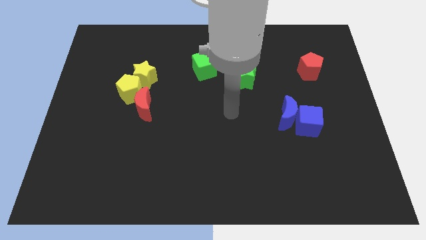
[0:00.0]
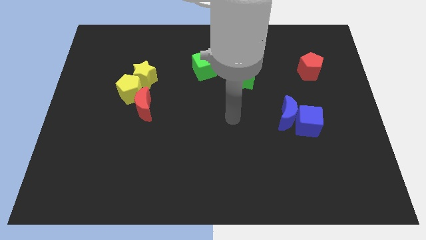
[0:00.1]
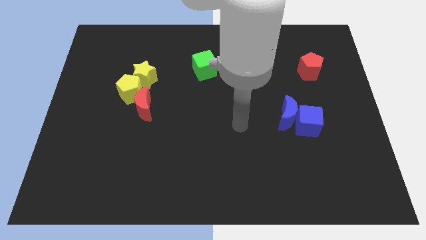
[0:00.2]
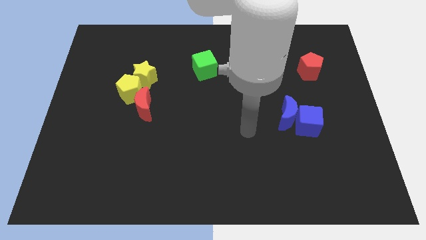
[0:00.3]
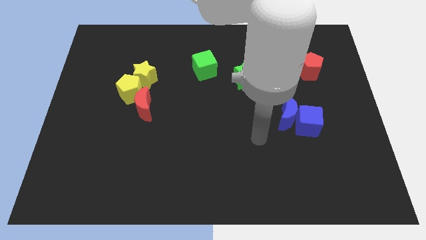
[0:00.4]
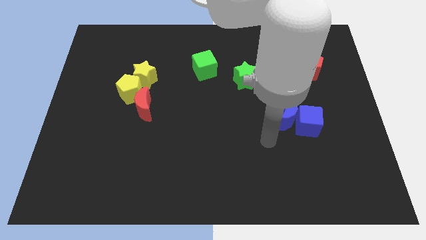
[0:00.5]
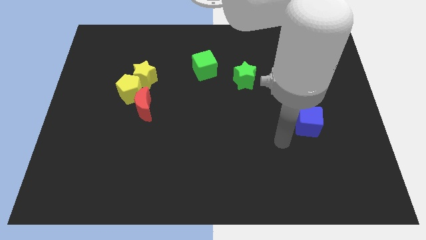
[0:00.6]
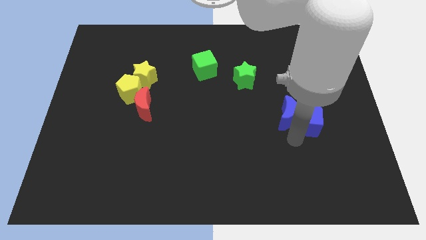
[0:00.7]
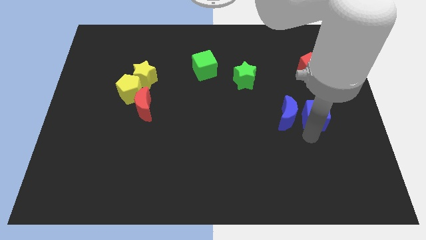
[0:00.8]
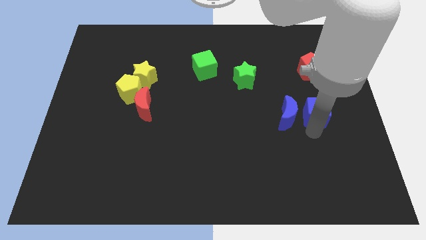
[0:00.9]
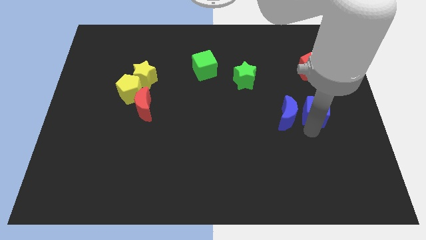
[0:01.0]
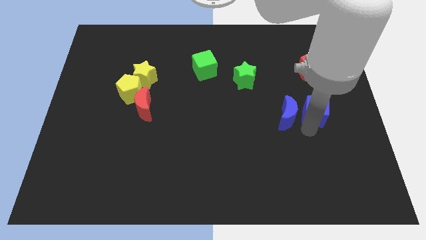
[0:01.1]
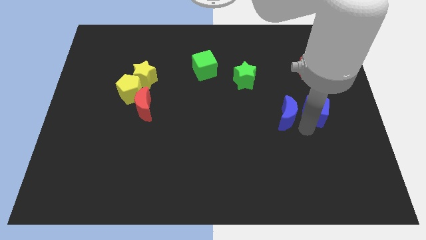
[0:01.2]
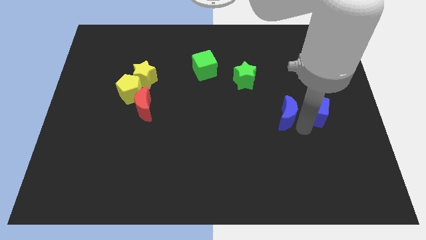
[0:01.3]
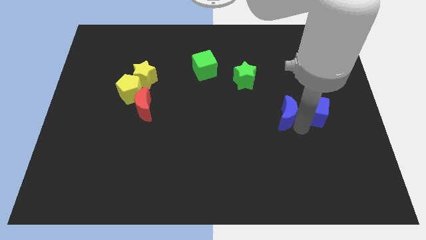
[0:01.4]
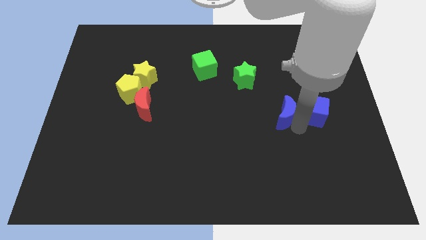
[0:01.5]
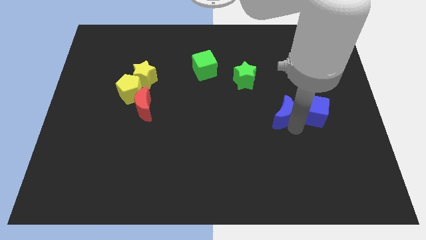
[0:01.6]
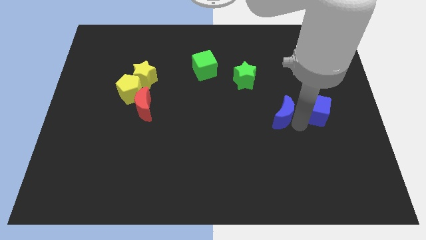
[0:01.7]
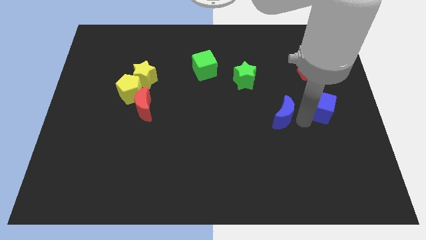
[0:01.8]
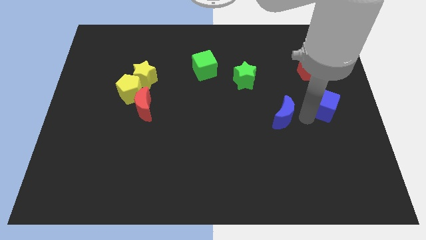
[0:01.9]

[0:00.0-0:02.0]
move the blue moon away from the blue cube

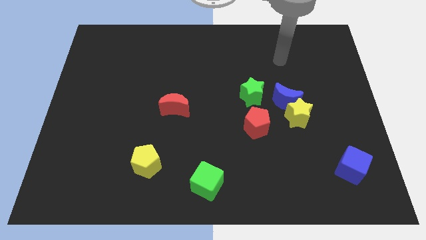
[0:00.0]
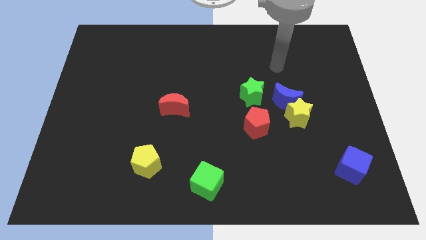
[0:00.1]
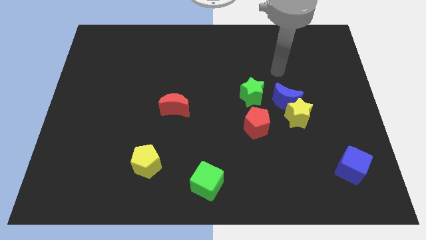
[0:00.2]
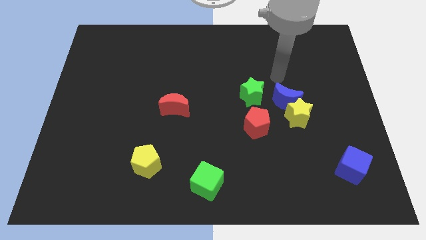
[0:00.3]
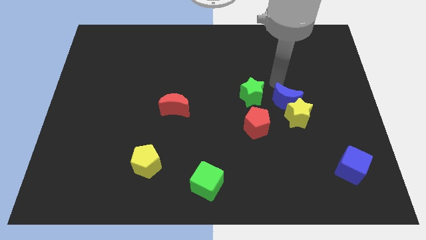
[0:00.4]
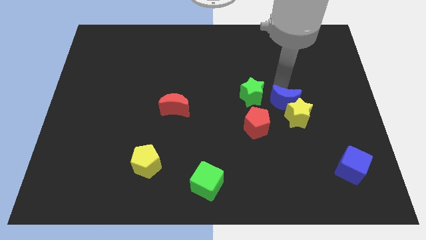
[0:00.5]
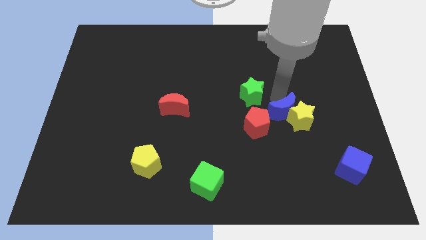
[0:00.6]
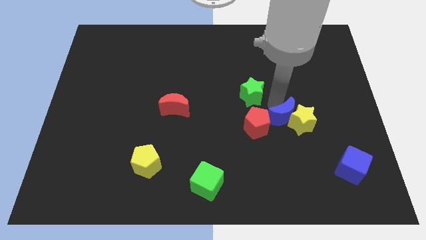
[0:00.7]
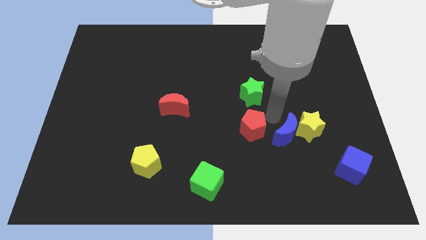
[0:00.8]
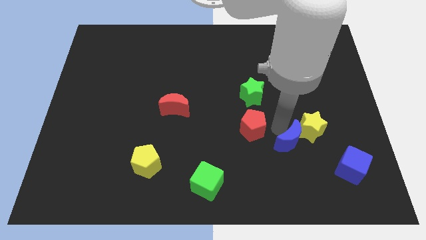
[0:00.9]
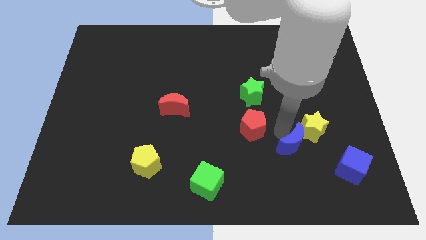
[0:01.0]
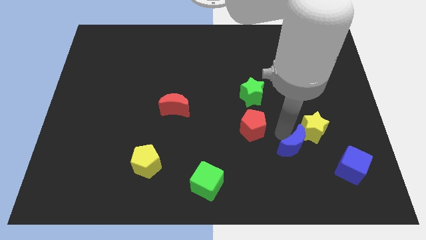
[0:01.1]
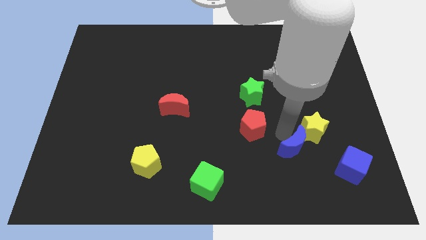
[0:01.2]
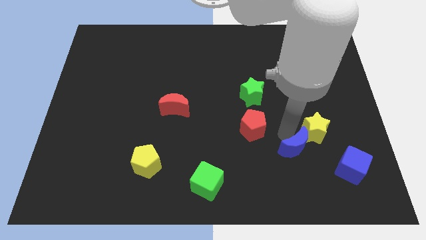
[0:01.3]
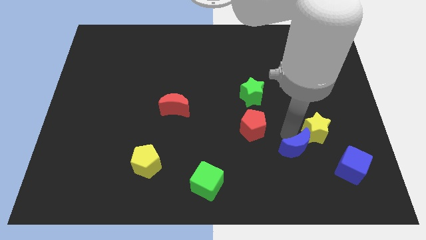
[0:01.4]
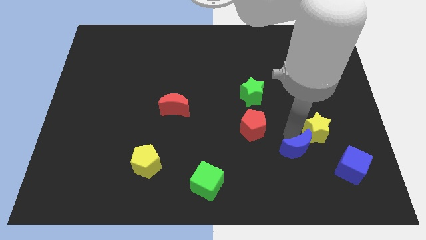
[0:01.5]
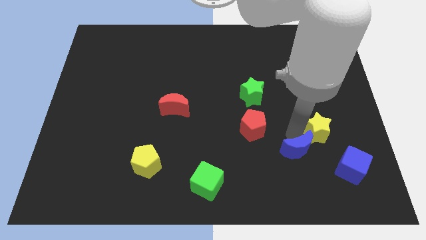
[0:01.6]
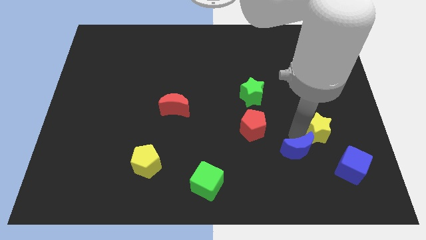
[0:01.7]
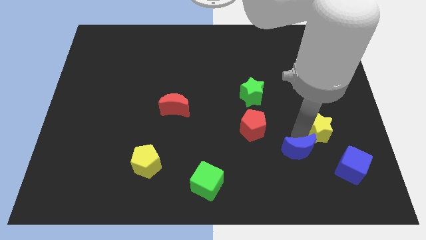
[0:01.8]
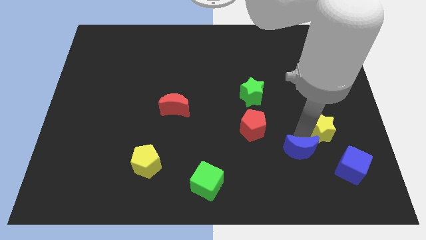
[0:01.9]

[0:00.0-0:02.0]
separate the yellow star from the blue moon and red pentagon

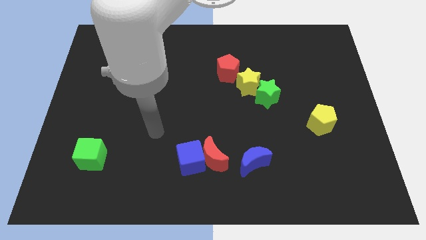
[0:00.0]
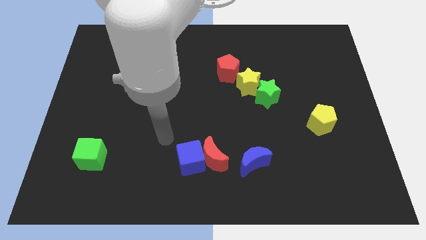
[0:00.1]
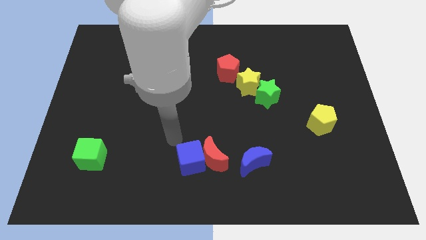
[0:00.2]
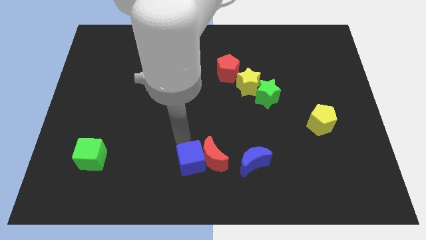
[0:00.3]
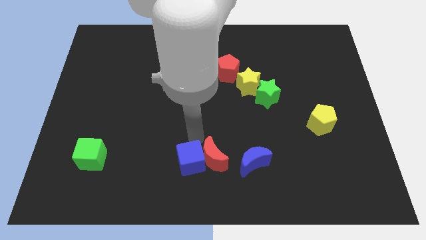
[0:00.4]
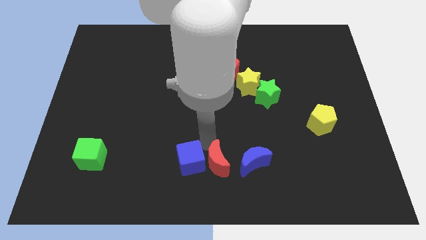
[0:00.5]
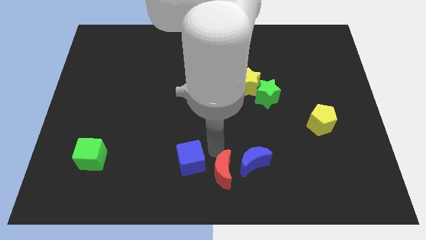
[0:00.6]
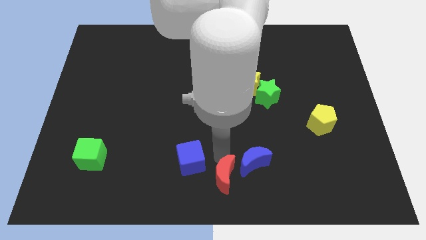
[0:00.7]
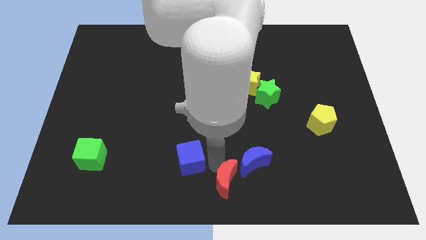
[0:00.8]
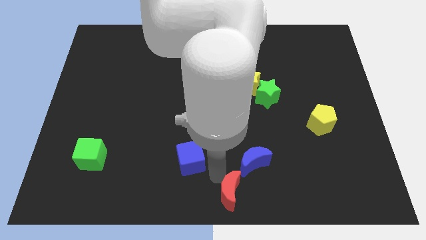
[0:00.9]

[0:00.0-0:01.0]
move the blue cube away from the red moon

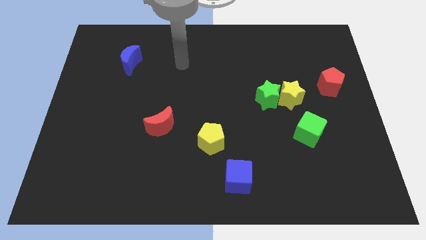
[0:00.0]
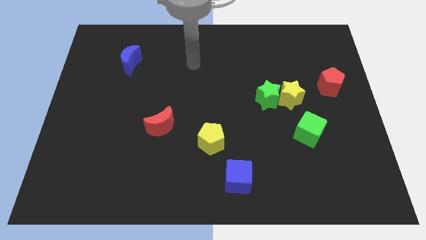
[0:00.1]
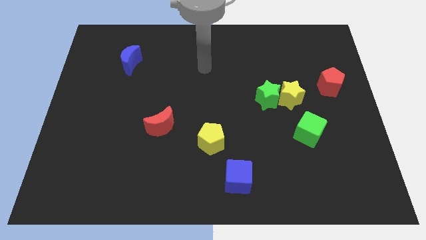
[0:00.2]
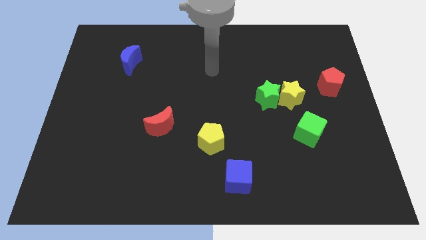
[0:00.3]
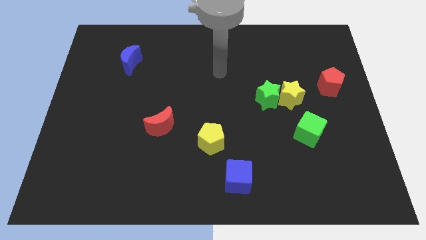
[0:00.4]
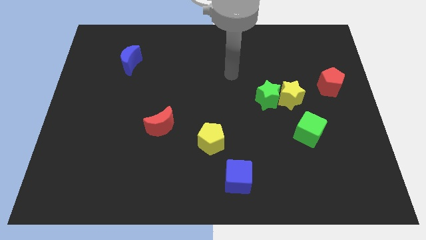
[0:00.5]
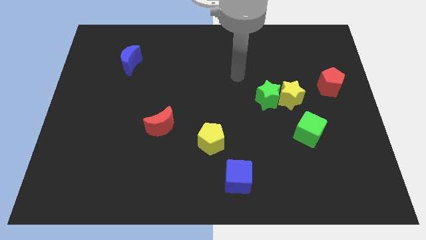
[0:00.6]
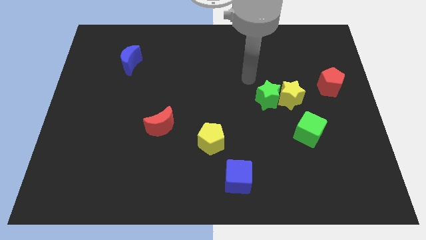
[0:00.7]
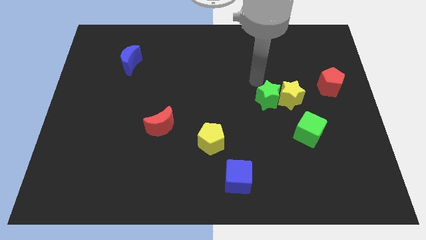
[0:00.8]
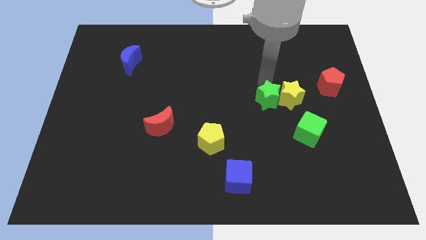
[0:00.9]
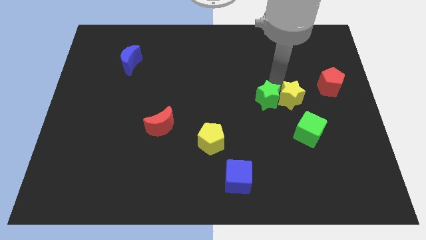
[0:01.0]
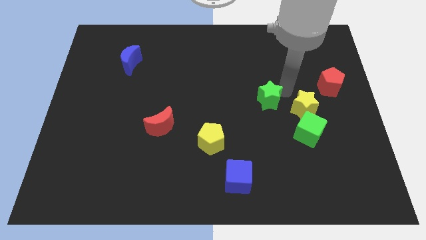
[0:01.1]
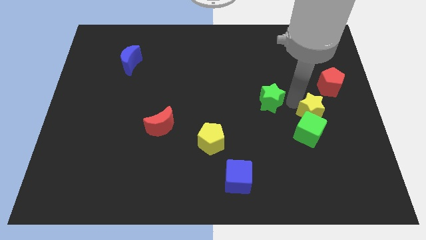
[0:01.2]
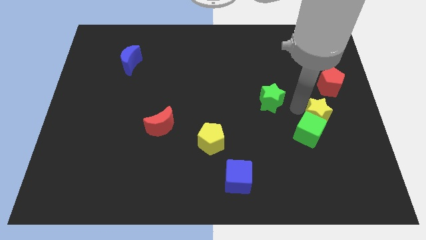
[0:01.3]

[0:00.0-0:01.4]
move the green star away from the yellow star

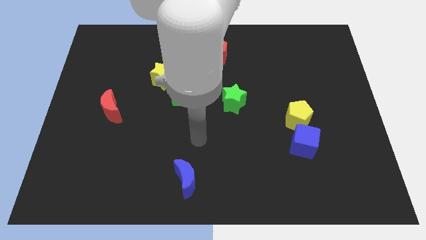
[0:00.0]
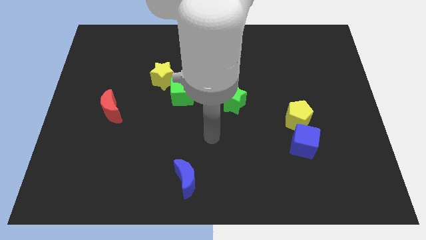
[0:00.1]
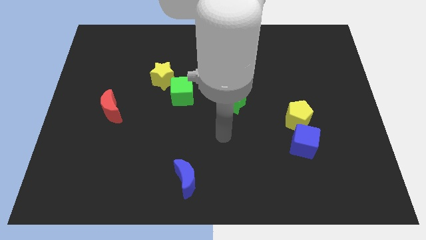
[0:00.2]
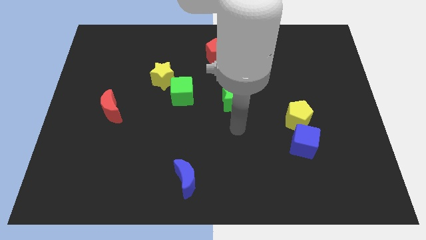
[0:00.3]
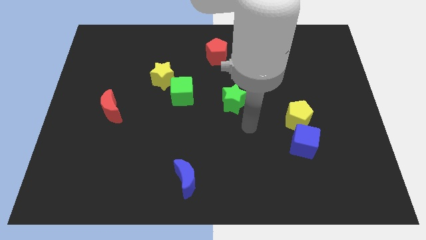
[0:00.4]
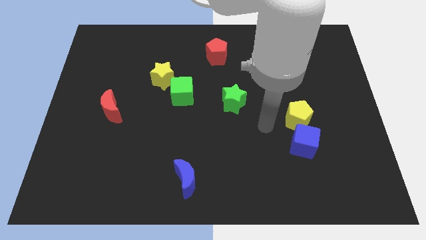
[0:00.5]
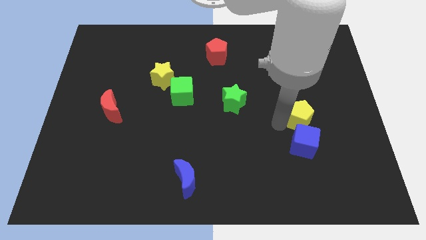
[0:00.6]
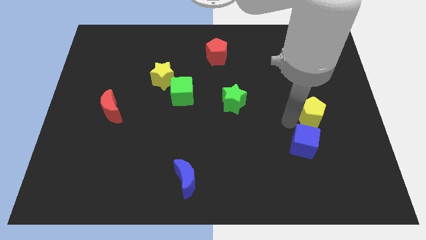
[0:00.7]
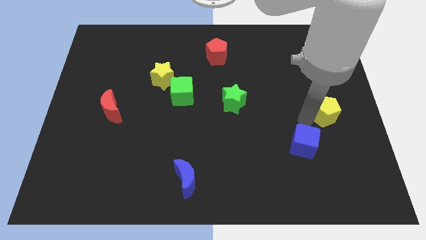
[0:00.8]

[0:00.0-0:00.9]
pull the blue cube apart from the yellow pentagon

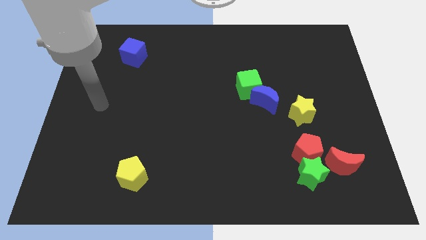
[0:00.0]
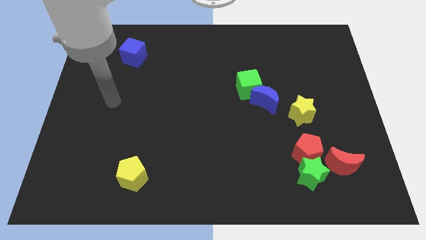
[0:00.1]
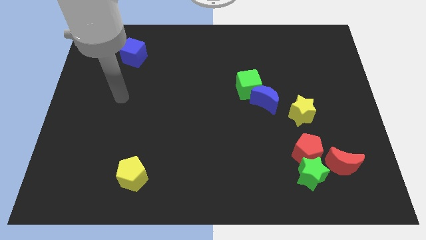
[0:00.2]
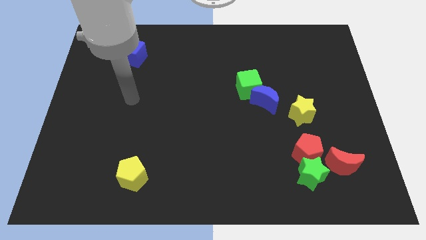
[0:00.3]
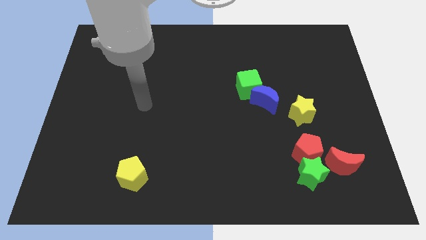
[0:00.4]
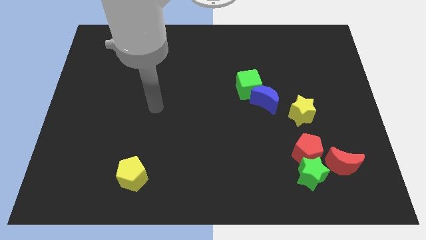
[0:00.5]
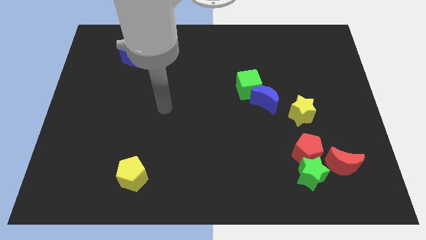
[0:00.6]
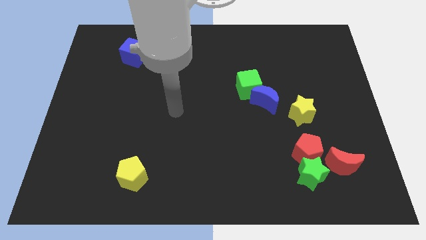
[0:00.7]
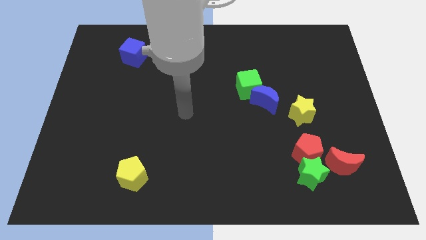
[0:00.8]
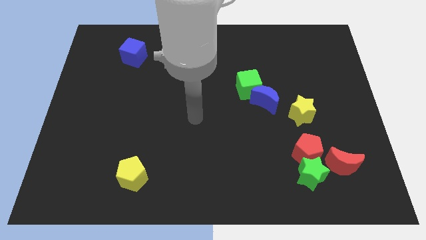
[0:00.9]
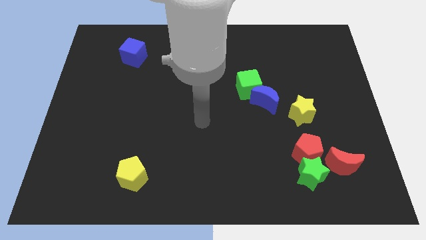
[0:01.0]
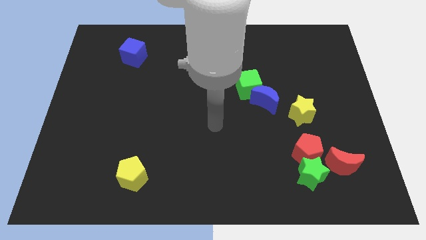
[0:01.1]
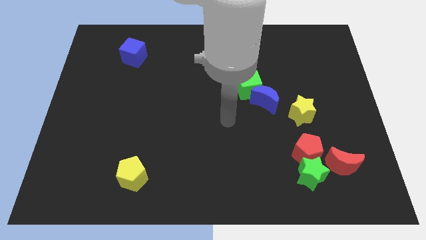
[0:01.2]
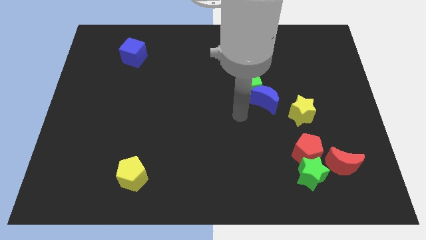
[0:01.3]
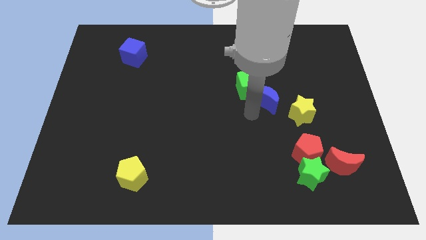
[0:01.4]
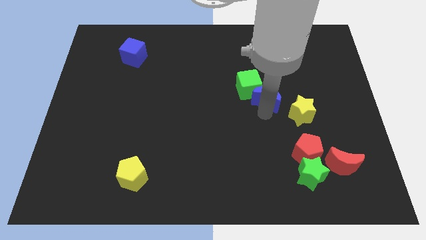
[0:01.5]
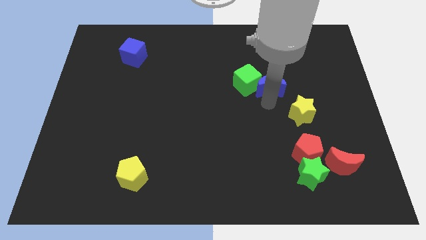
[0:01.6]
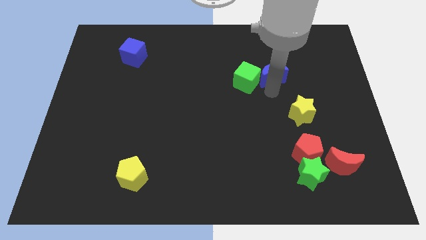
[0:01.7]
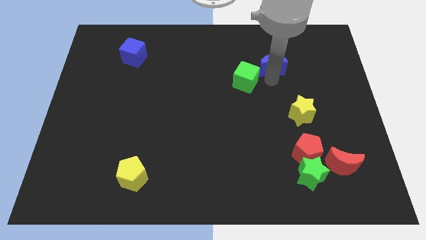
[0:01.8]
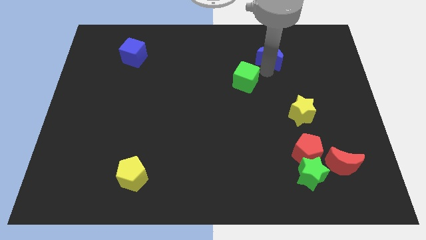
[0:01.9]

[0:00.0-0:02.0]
separate the green cube from the blue moon
